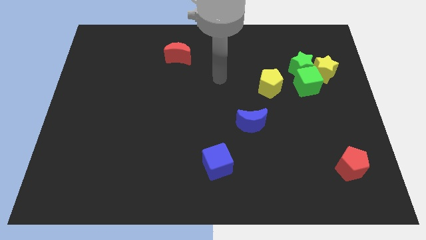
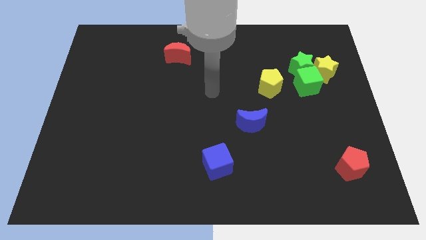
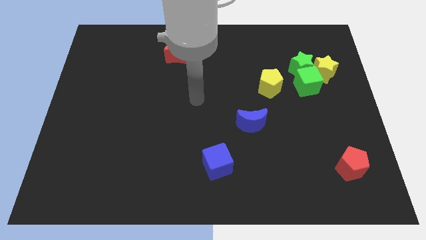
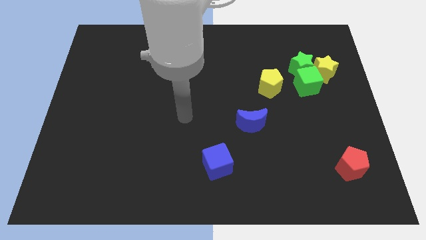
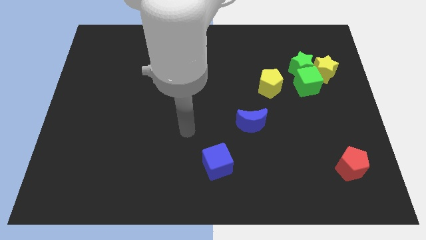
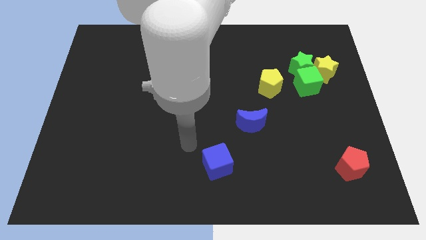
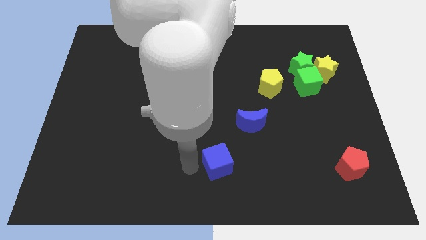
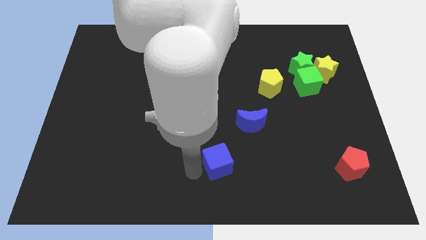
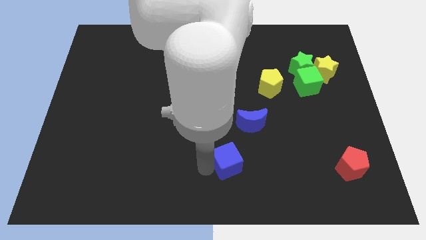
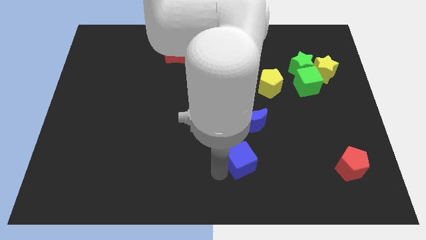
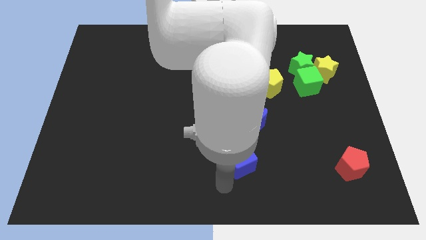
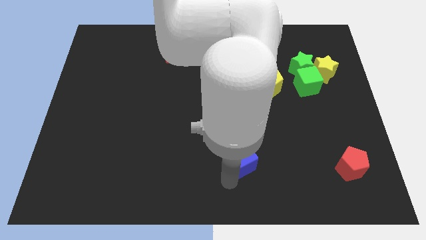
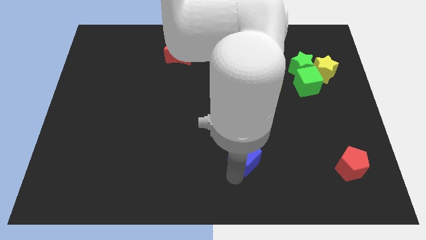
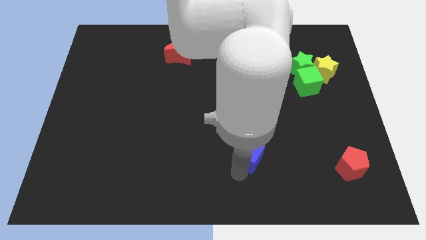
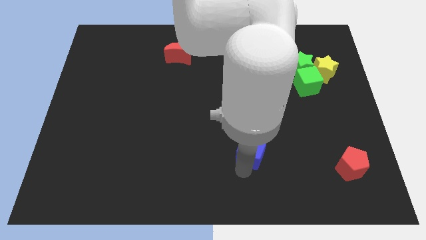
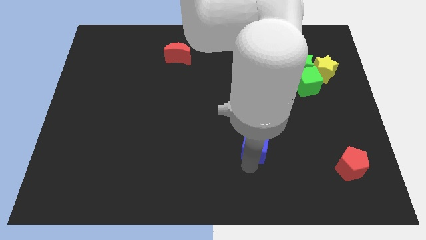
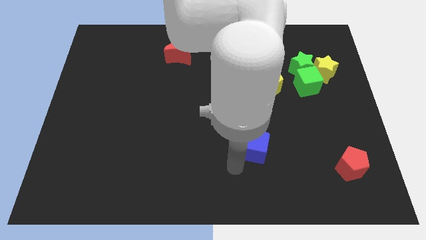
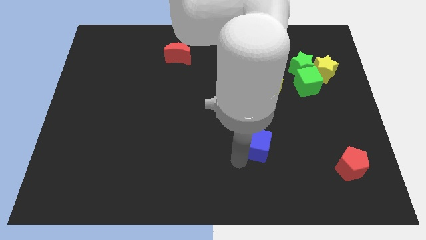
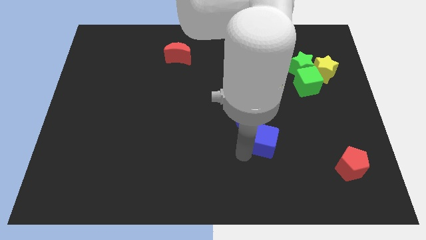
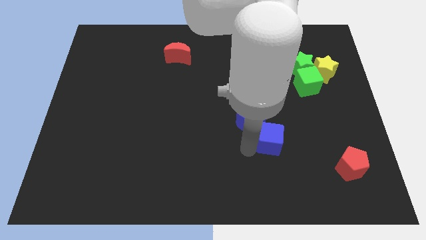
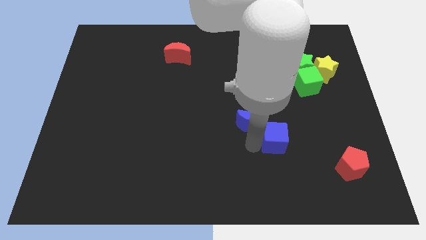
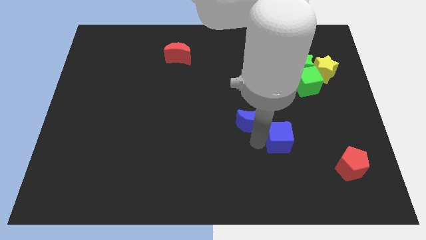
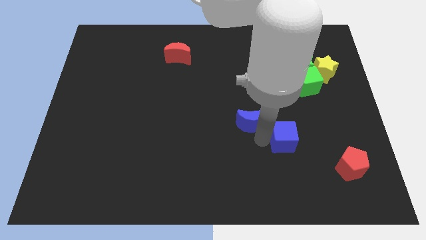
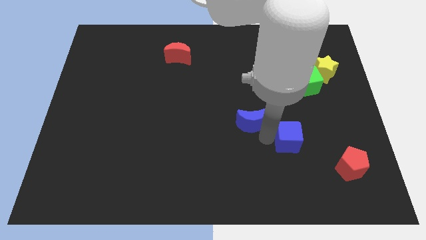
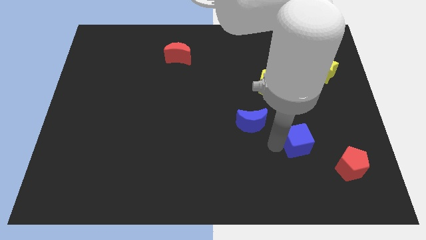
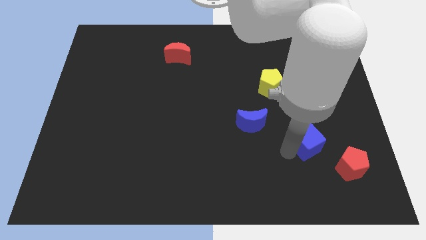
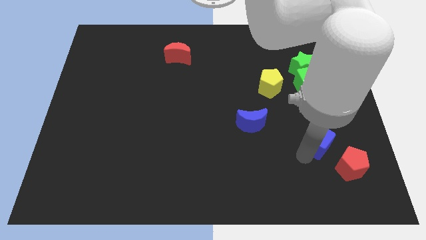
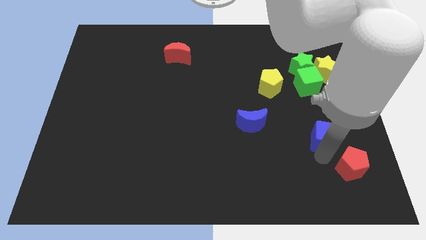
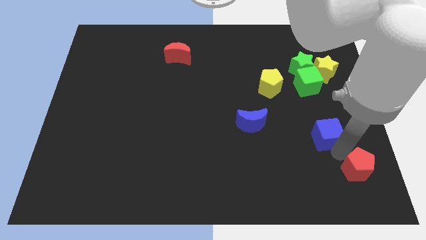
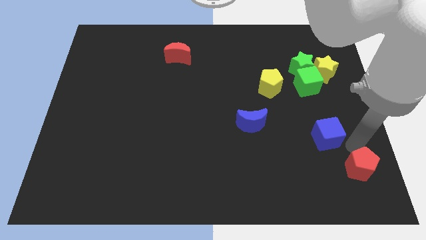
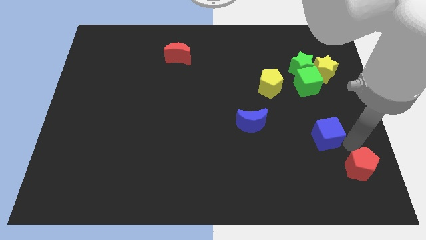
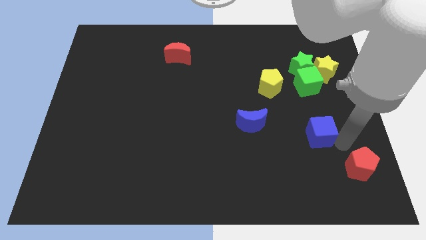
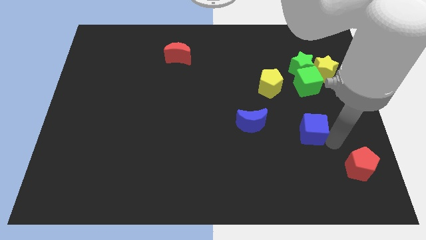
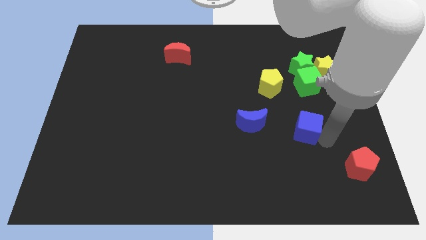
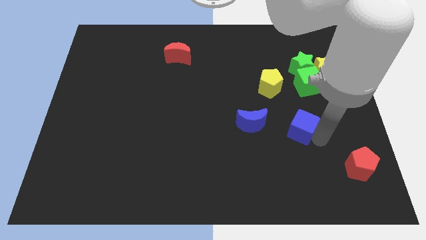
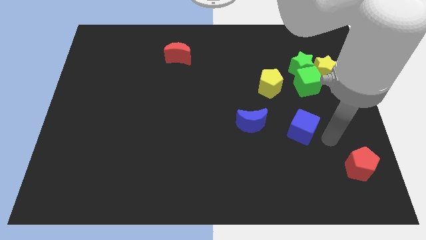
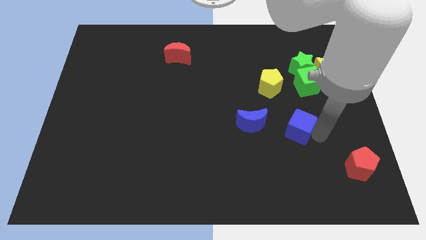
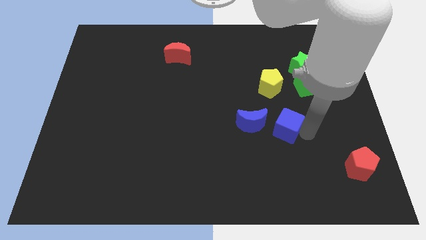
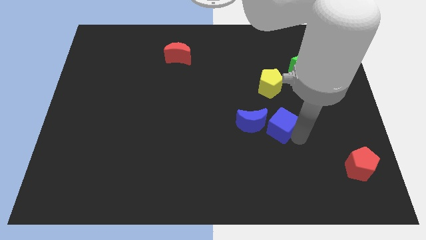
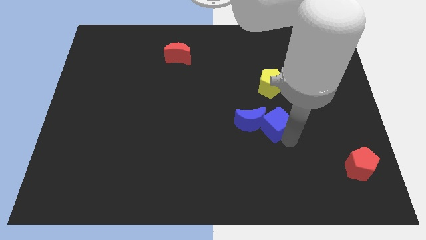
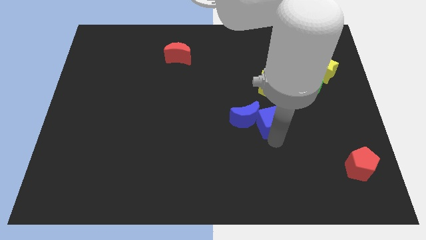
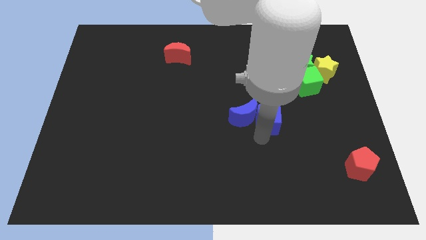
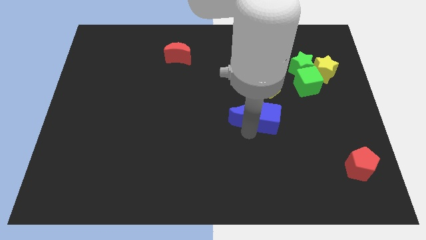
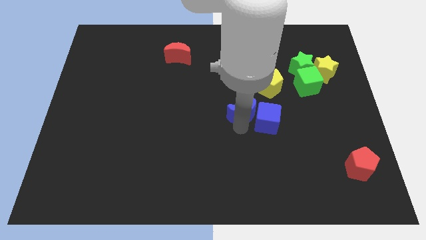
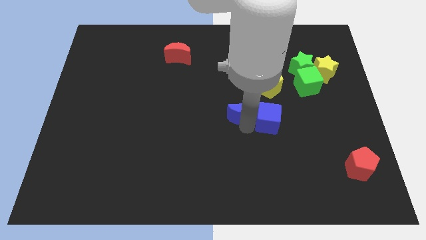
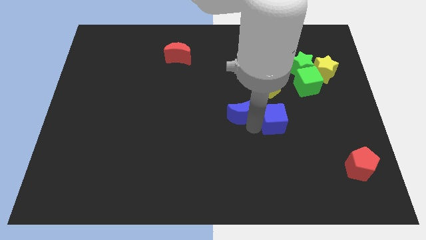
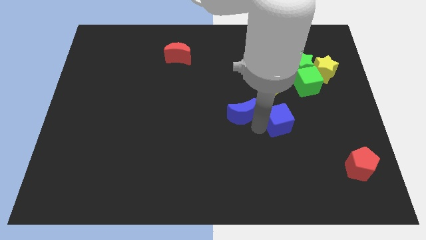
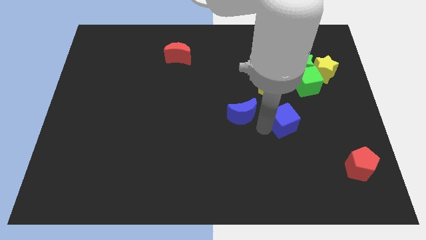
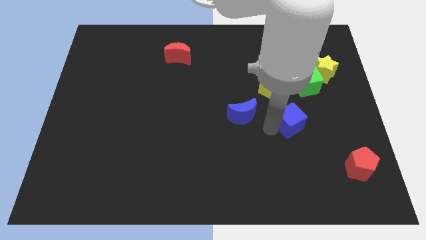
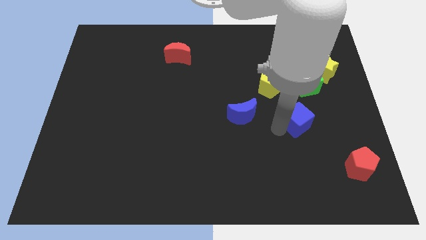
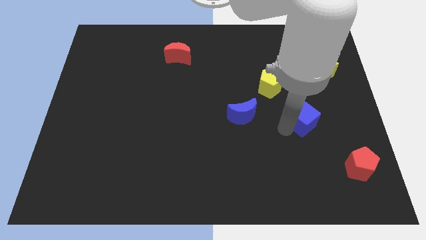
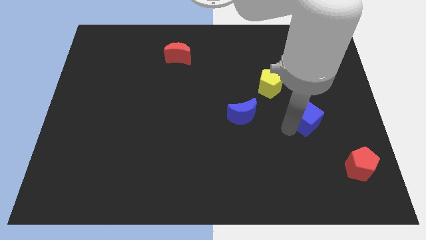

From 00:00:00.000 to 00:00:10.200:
put the blue cube to the bottom side of the green star

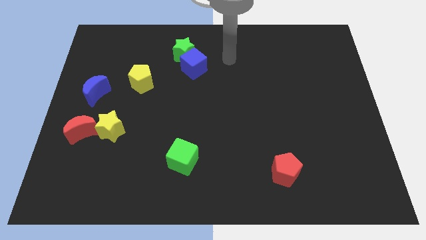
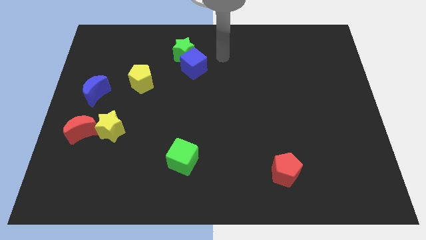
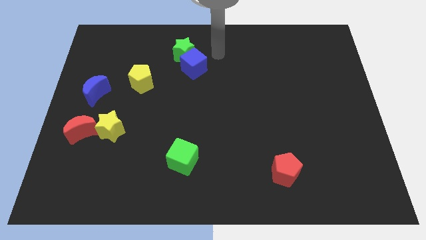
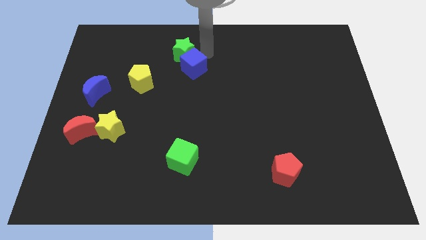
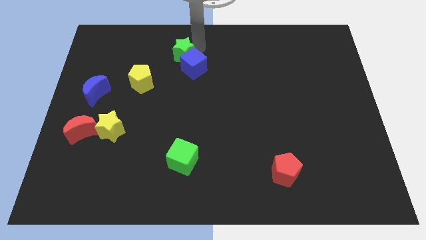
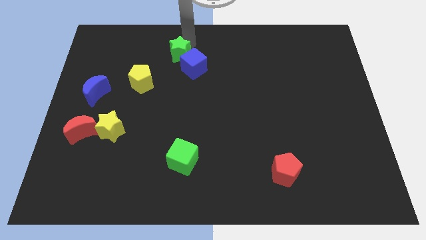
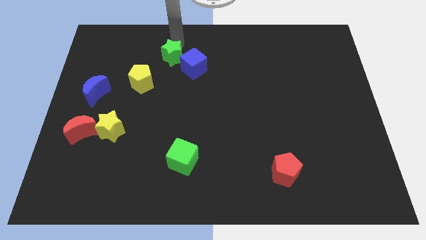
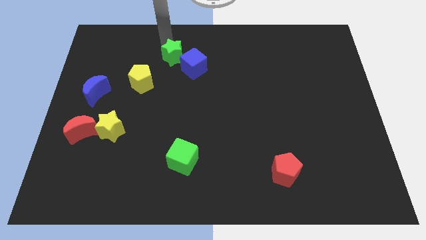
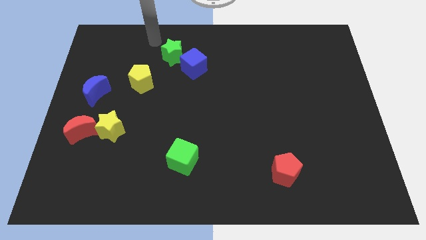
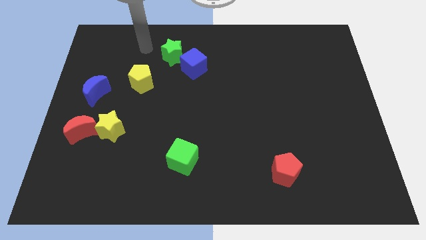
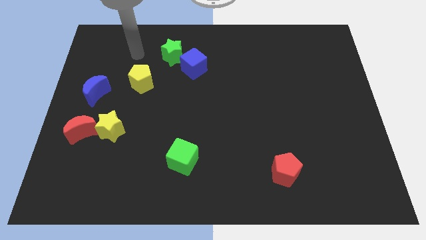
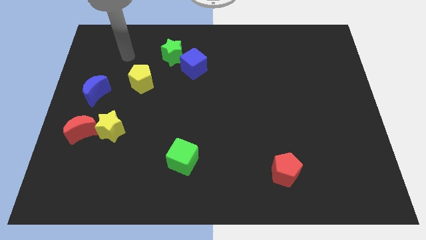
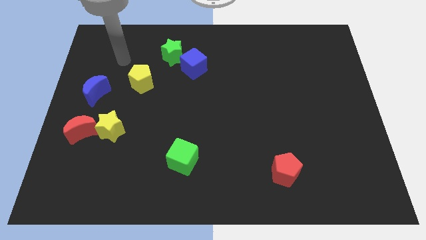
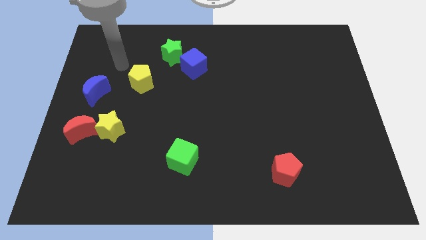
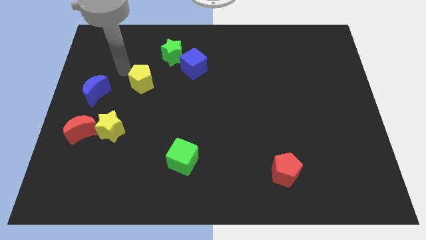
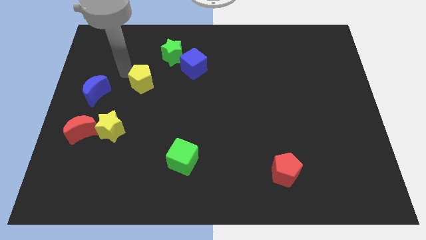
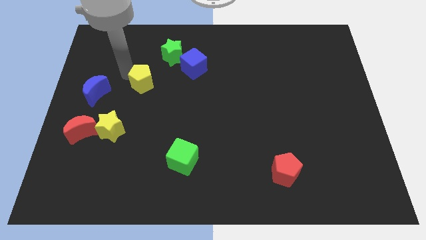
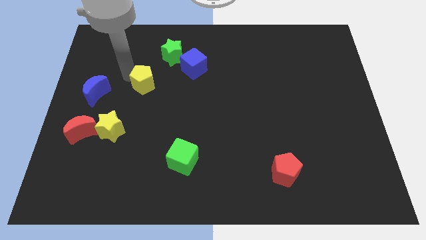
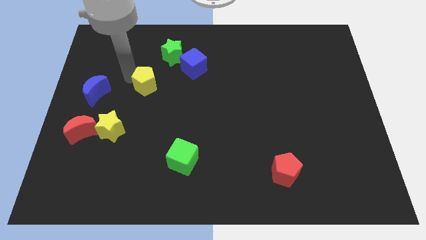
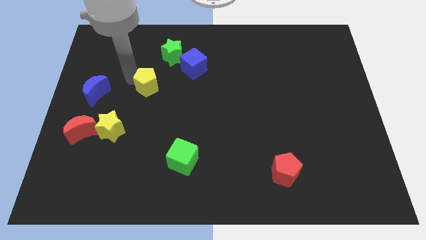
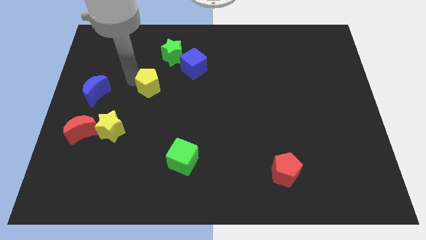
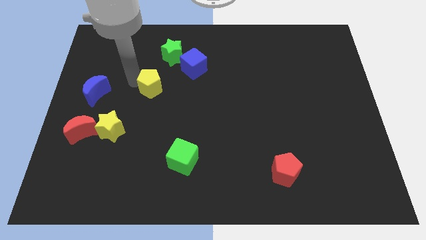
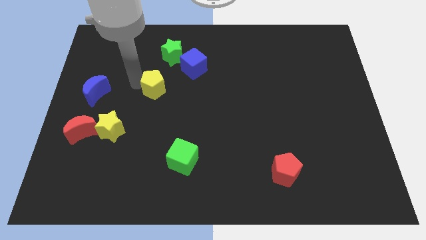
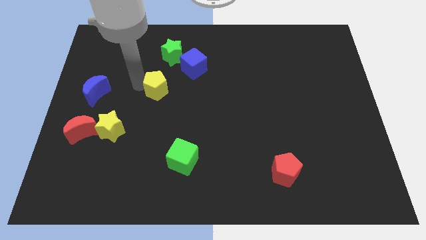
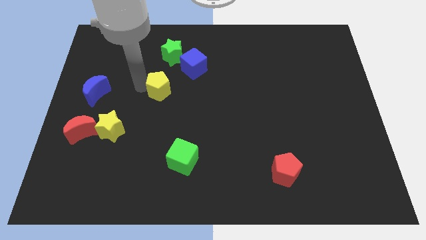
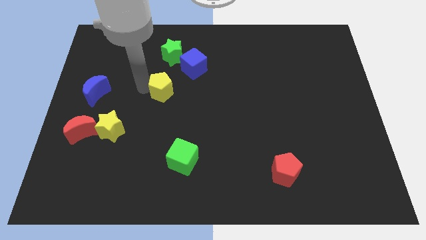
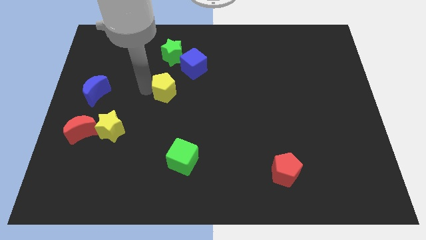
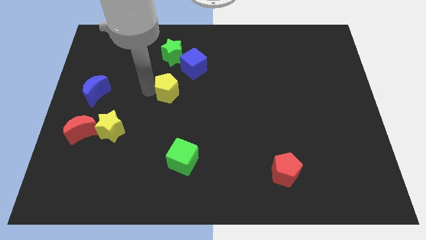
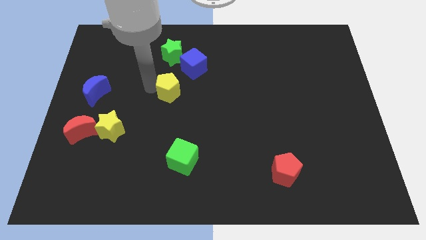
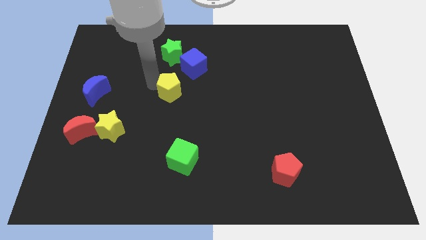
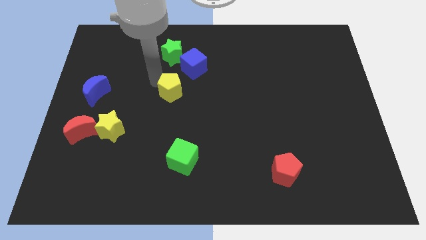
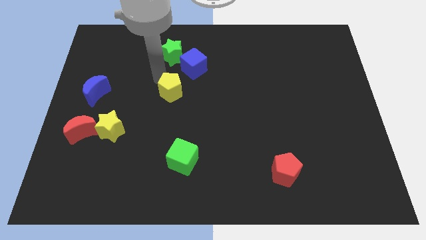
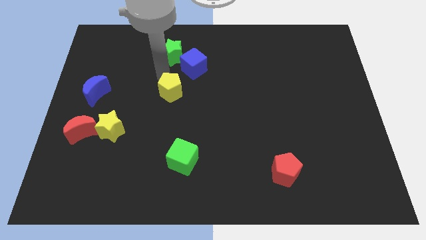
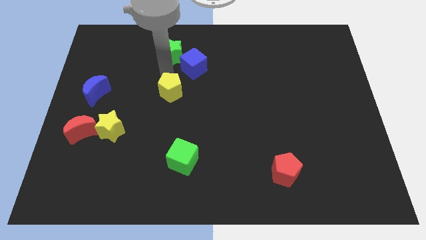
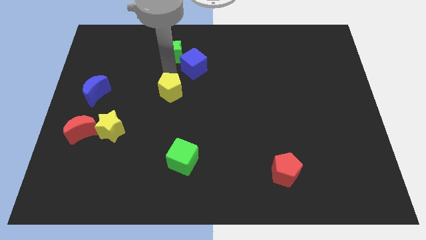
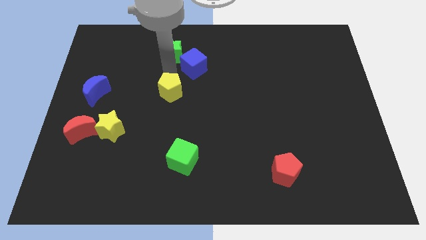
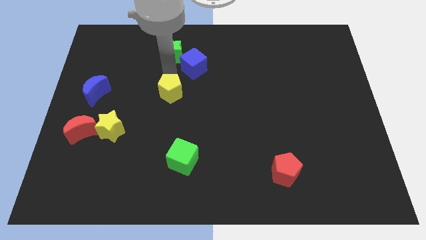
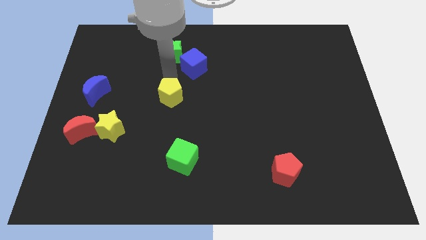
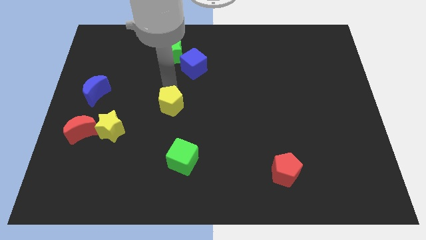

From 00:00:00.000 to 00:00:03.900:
slide the yellow pentagon to the top of the green cube
